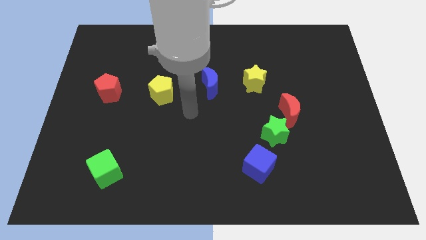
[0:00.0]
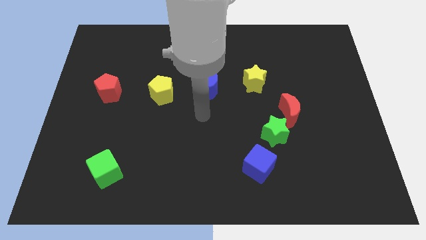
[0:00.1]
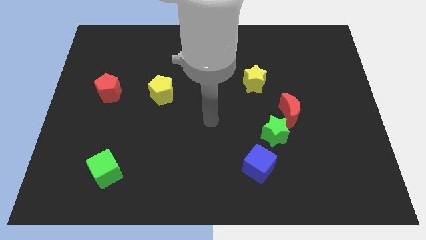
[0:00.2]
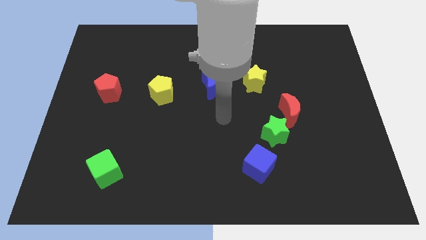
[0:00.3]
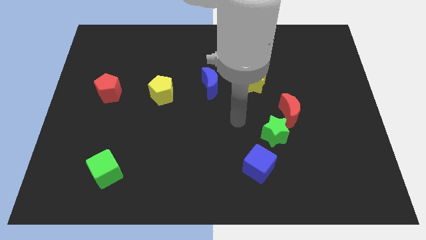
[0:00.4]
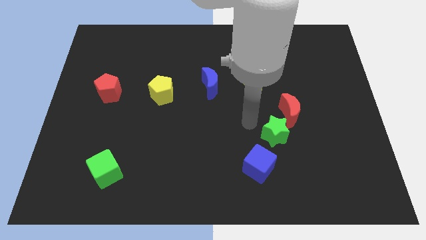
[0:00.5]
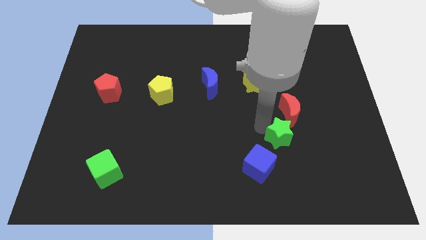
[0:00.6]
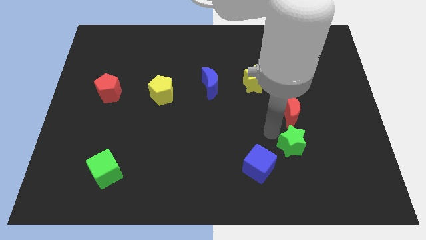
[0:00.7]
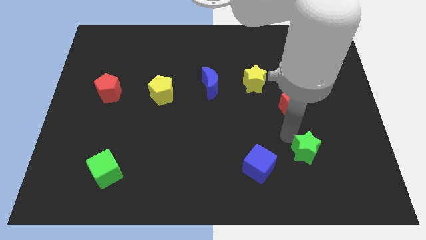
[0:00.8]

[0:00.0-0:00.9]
pull the red moon apart from the green star

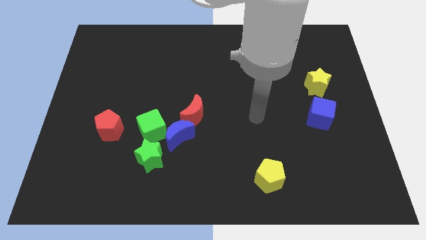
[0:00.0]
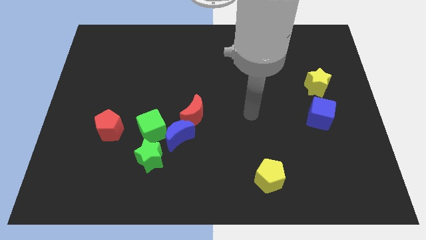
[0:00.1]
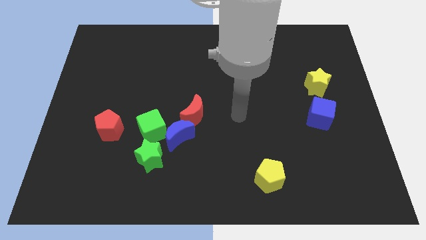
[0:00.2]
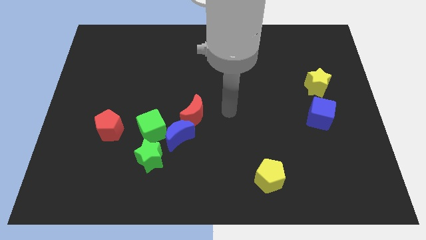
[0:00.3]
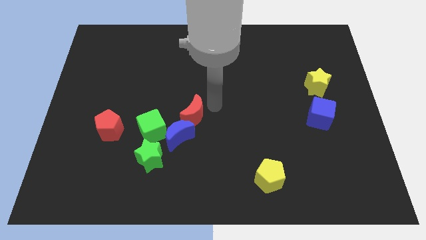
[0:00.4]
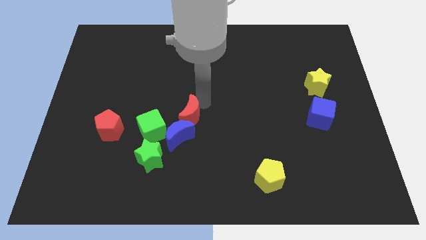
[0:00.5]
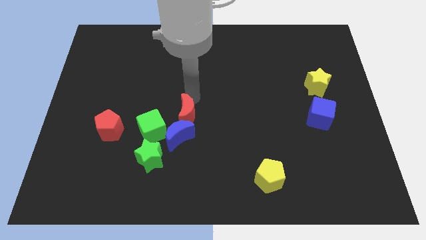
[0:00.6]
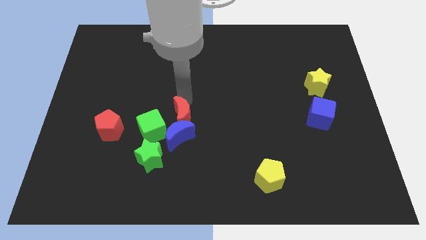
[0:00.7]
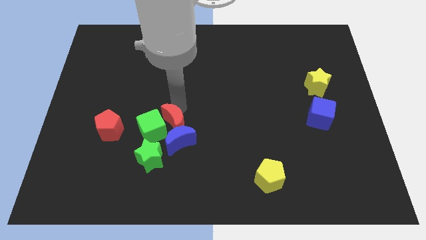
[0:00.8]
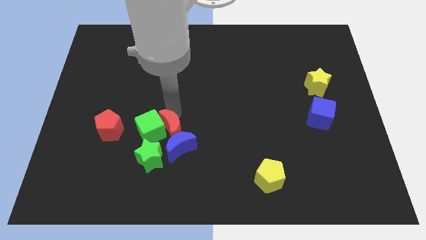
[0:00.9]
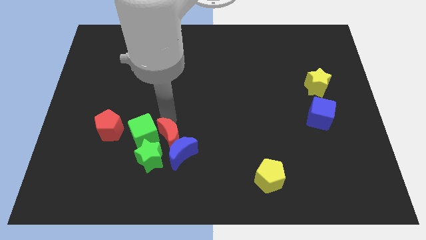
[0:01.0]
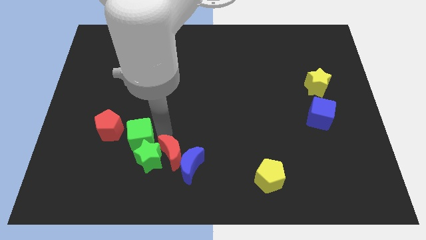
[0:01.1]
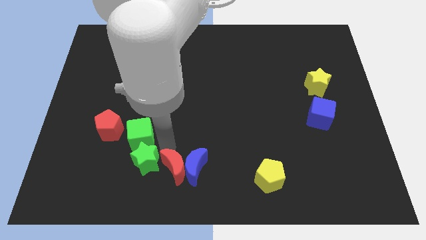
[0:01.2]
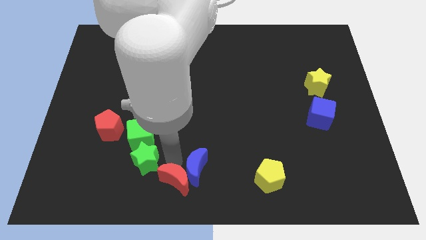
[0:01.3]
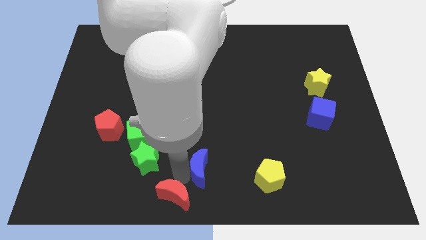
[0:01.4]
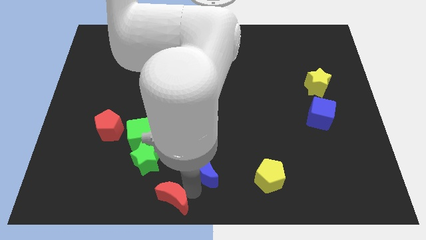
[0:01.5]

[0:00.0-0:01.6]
pull the blue moon apart from the green cube, red moon, and green star

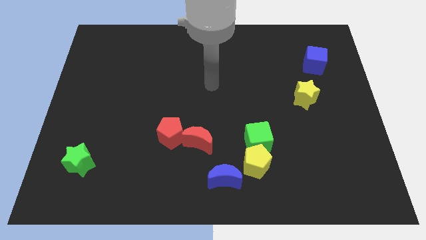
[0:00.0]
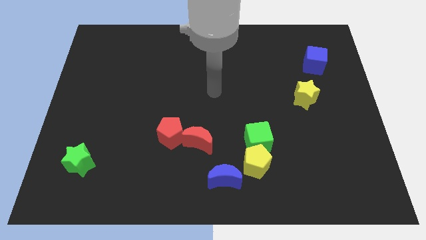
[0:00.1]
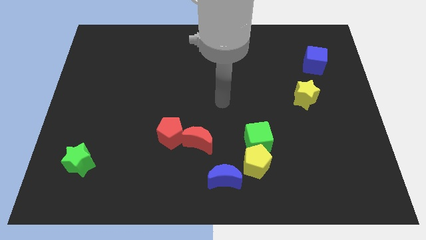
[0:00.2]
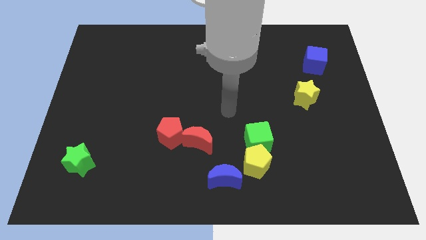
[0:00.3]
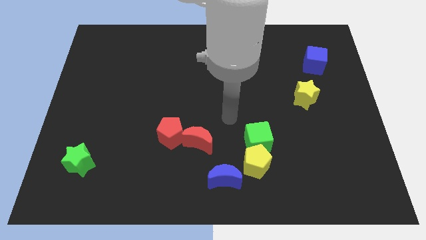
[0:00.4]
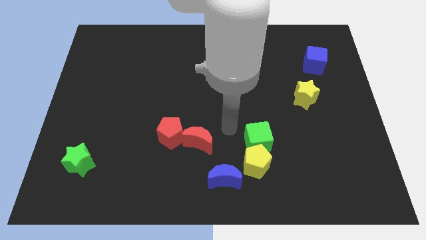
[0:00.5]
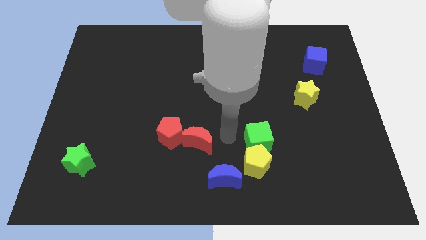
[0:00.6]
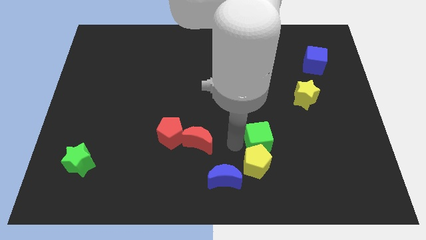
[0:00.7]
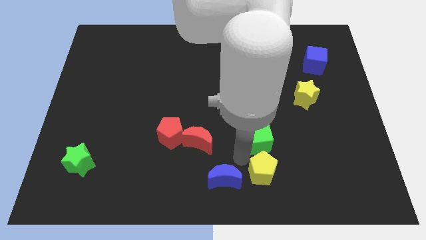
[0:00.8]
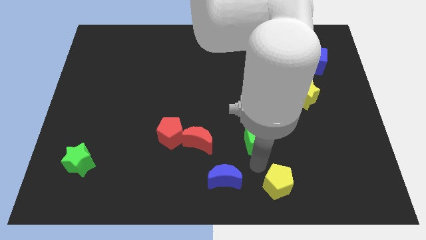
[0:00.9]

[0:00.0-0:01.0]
separate the green cube from the yellow pentagon

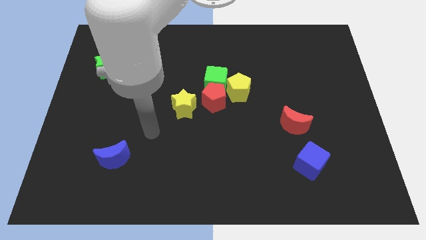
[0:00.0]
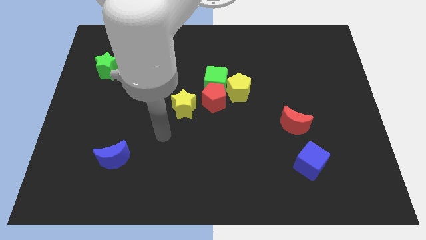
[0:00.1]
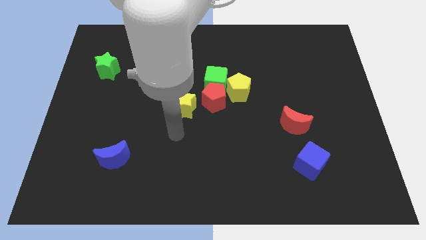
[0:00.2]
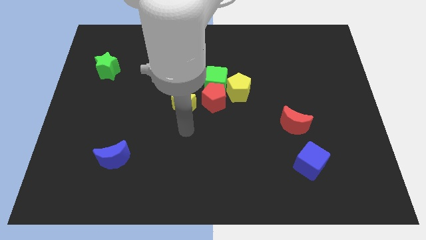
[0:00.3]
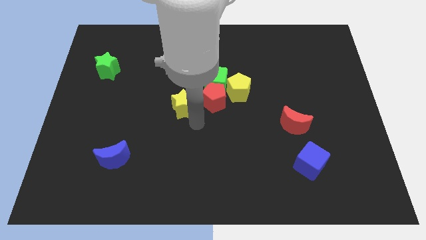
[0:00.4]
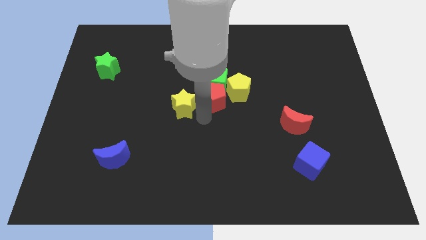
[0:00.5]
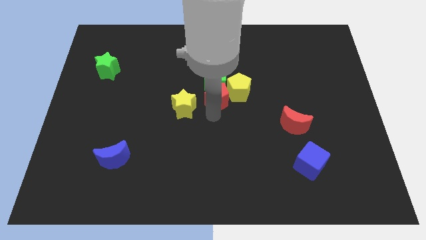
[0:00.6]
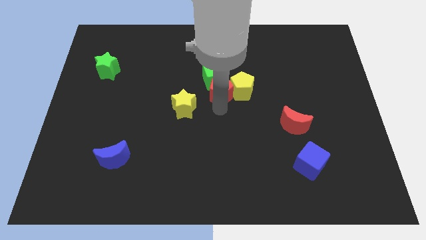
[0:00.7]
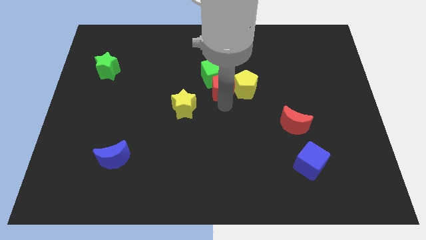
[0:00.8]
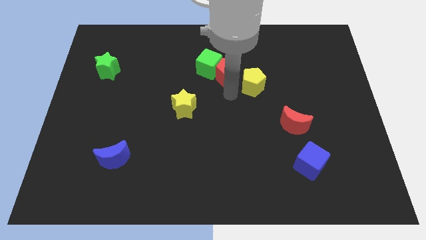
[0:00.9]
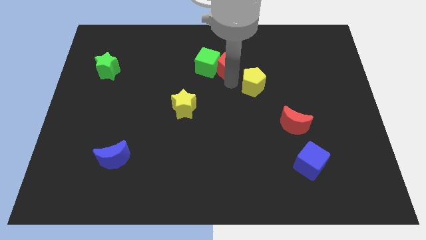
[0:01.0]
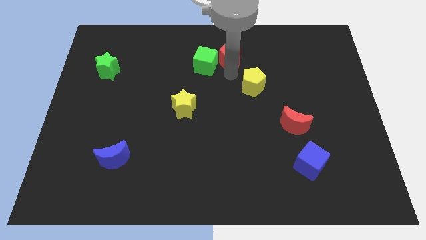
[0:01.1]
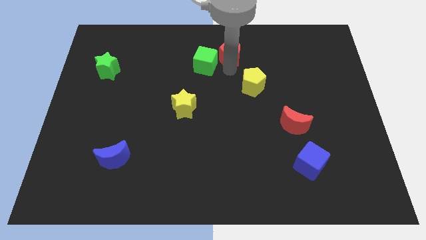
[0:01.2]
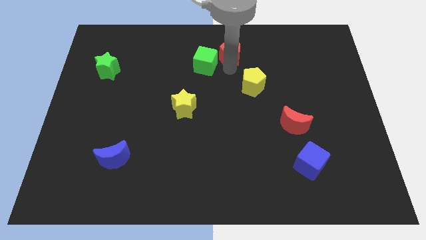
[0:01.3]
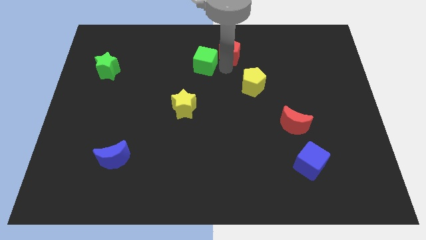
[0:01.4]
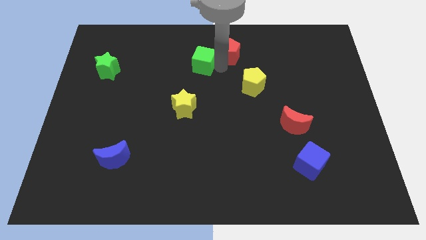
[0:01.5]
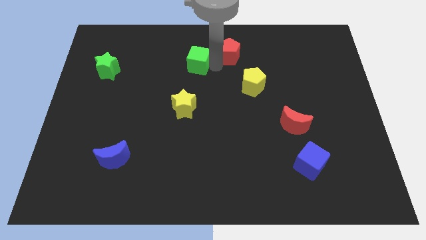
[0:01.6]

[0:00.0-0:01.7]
move the green cube away from the red pentagon and yellow pentagon

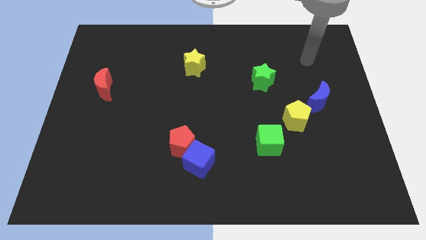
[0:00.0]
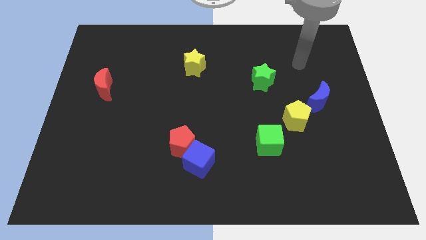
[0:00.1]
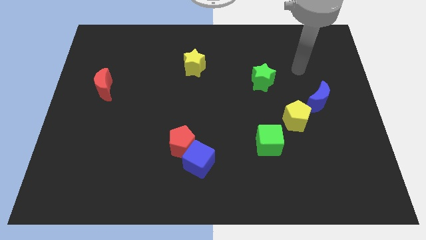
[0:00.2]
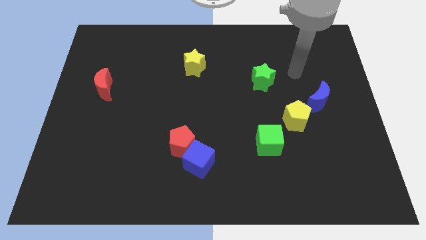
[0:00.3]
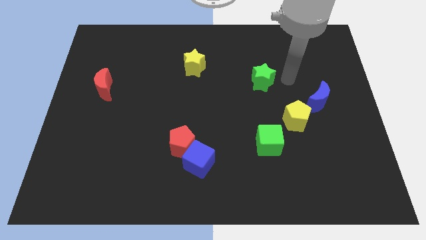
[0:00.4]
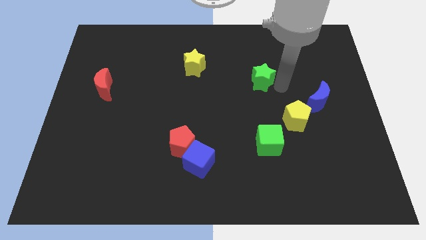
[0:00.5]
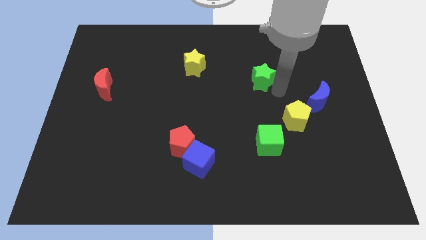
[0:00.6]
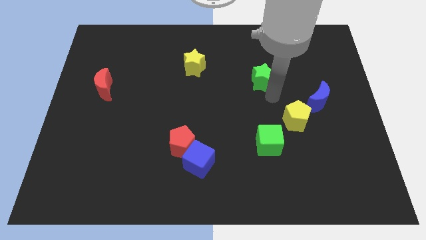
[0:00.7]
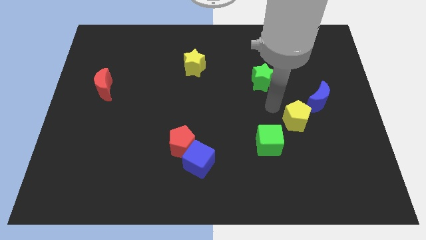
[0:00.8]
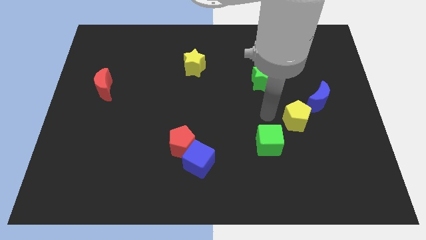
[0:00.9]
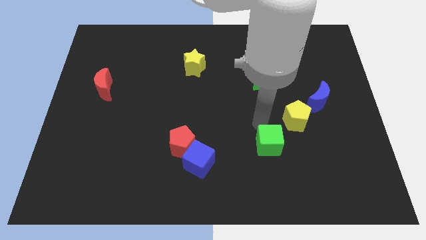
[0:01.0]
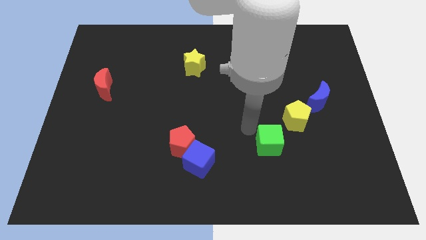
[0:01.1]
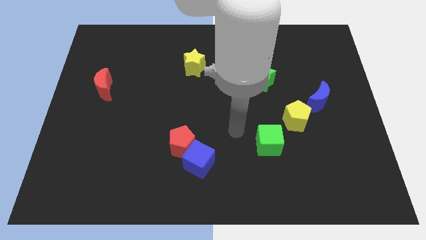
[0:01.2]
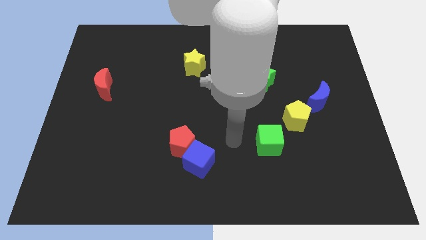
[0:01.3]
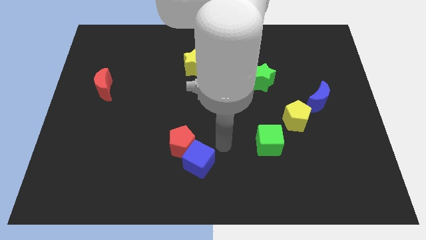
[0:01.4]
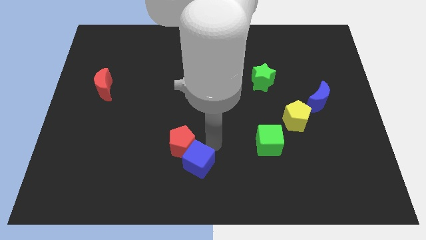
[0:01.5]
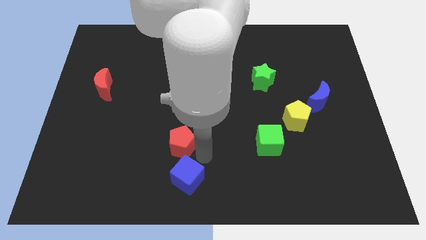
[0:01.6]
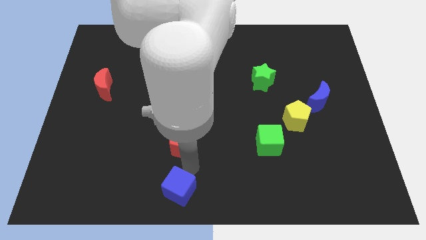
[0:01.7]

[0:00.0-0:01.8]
separate the red pentagon from the blue cube

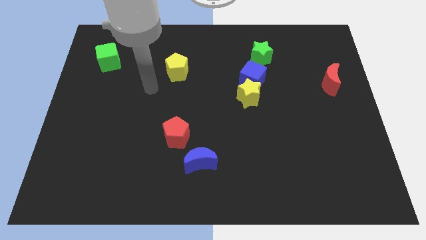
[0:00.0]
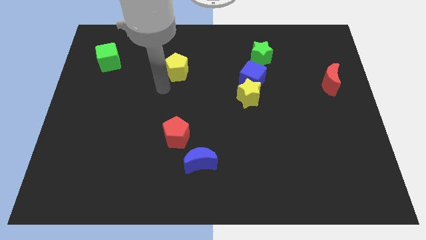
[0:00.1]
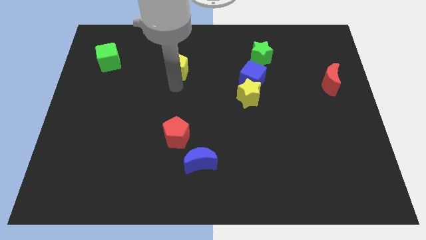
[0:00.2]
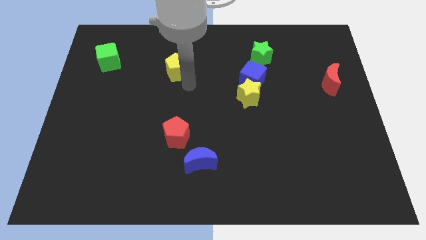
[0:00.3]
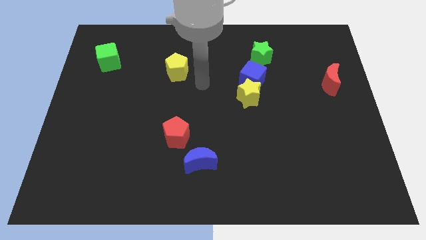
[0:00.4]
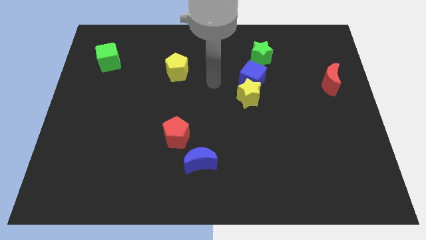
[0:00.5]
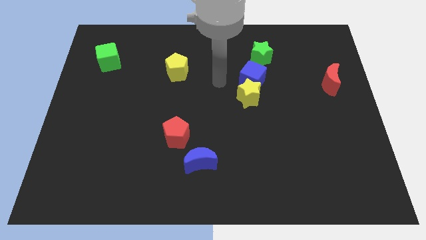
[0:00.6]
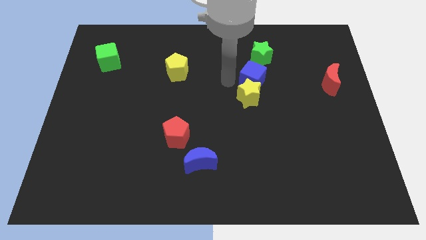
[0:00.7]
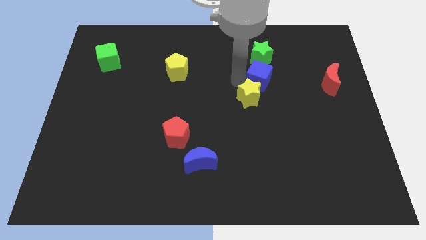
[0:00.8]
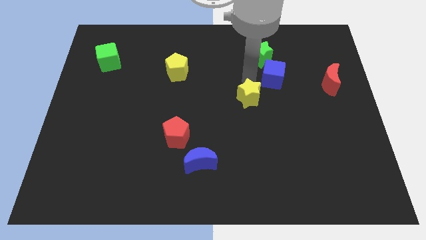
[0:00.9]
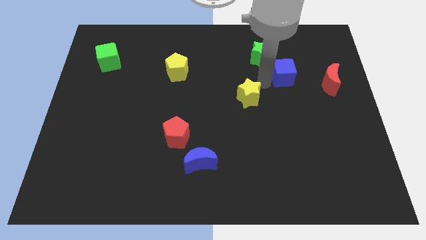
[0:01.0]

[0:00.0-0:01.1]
move the yellow star away from the blue cube

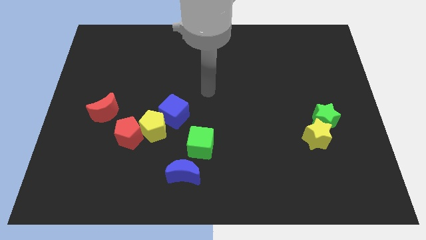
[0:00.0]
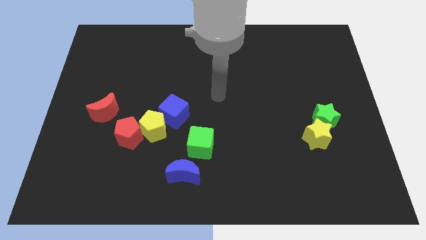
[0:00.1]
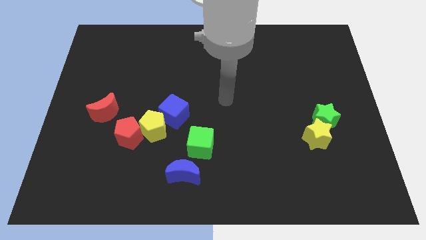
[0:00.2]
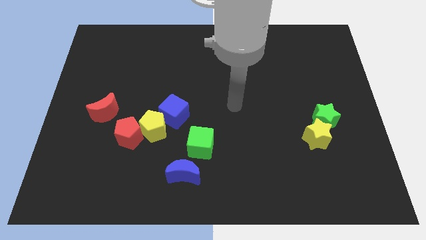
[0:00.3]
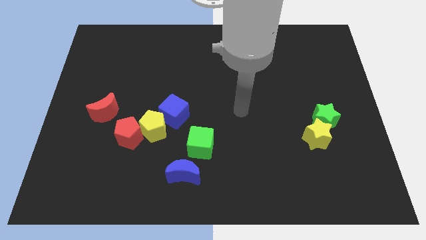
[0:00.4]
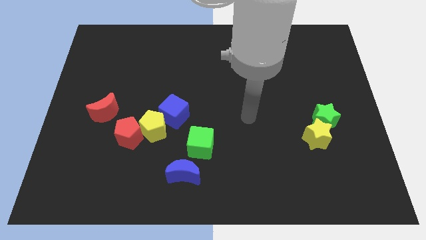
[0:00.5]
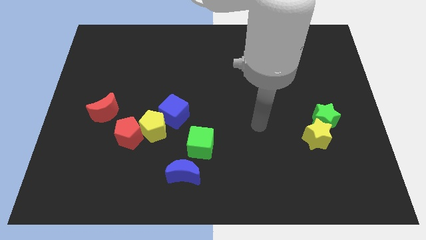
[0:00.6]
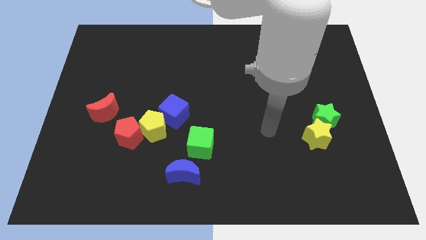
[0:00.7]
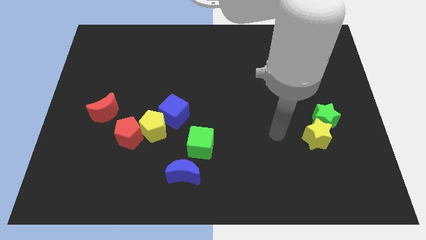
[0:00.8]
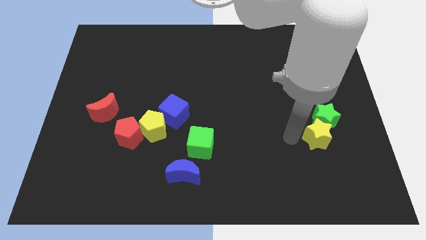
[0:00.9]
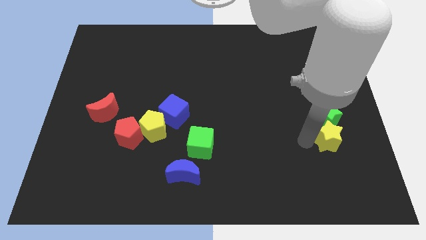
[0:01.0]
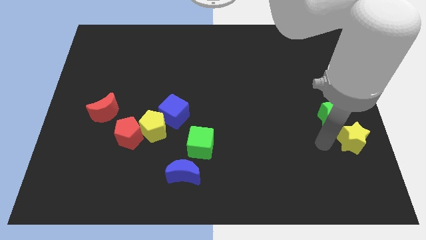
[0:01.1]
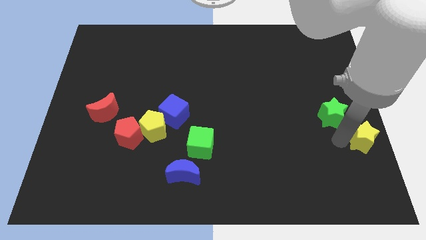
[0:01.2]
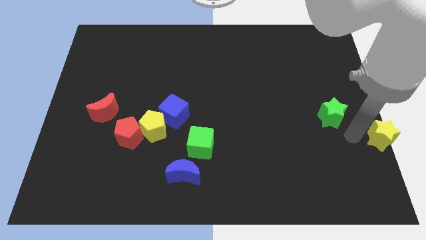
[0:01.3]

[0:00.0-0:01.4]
pull the green star apart from the yellow star

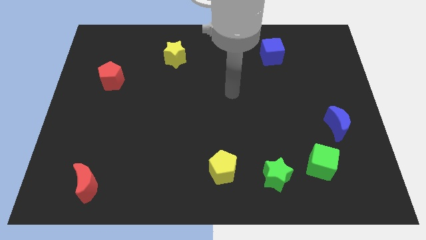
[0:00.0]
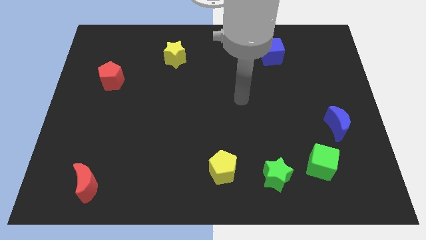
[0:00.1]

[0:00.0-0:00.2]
separate the green cube from the green star
